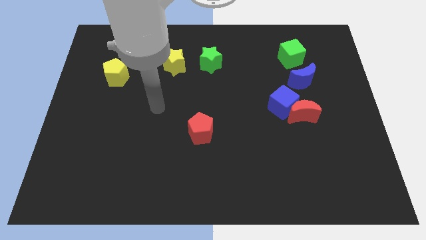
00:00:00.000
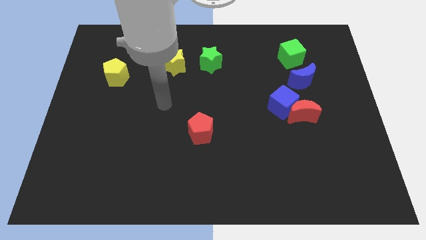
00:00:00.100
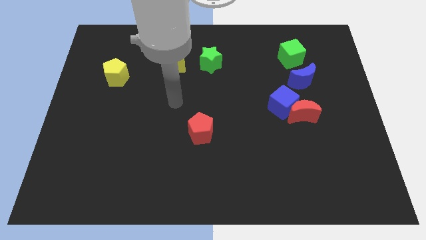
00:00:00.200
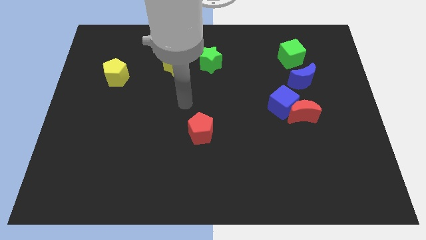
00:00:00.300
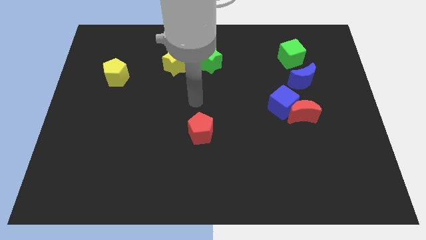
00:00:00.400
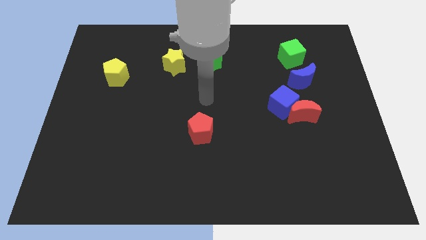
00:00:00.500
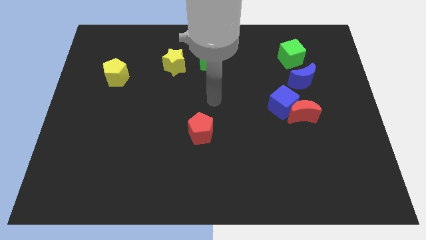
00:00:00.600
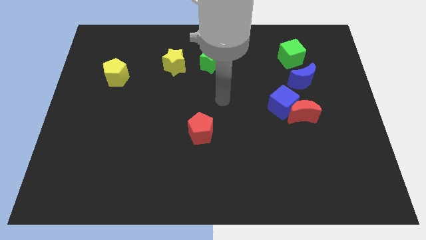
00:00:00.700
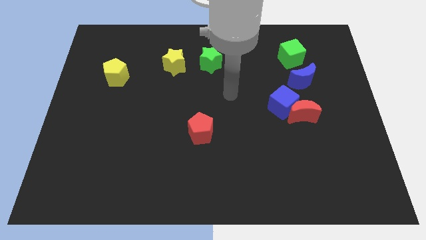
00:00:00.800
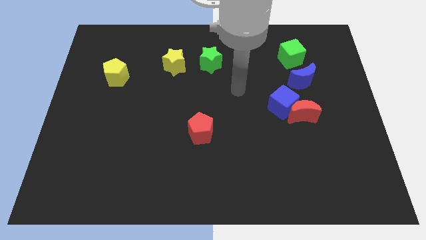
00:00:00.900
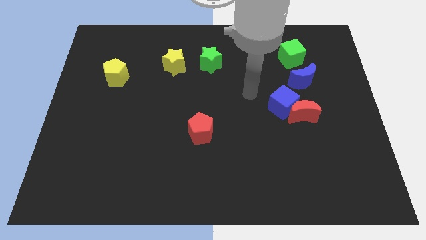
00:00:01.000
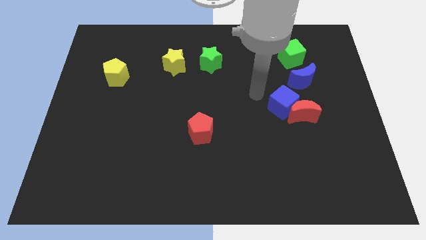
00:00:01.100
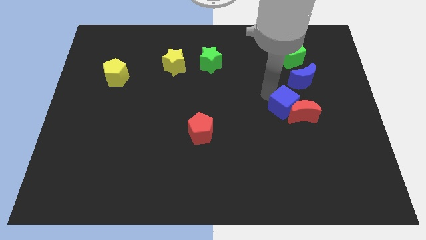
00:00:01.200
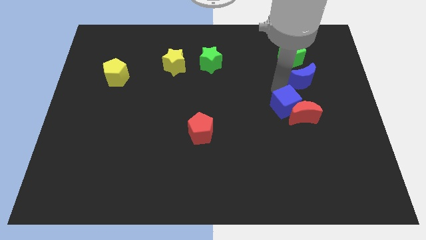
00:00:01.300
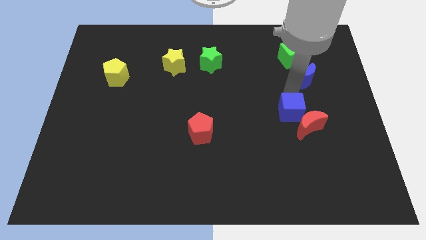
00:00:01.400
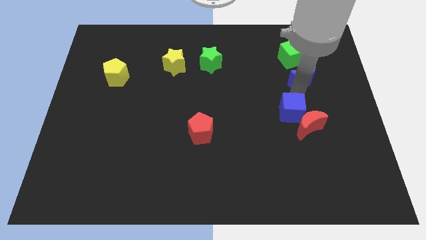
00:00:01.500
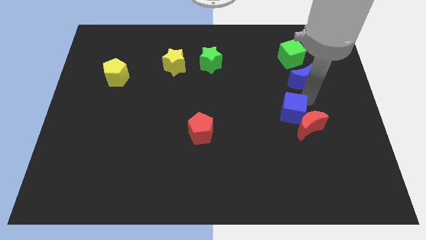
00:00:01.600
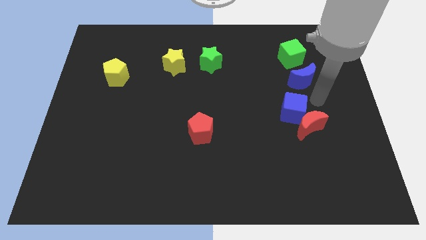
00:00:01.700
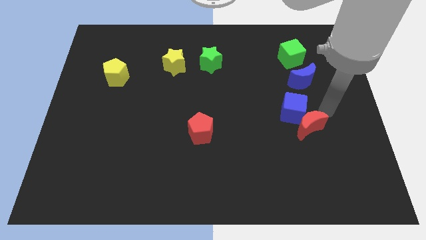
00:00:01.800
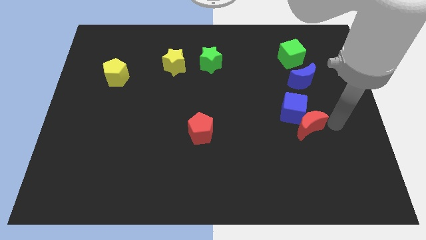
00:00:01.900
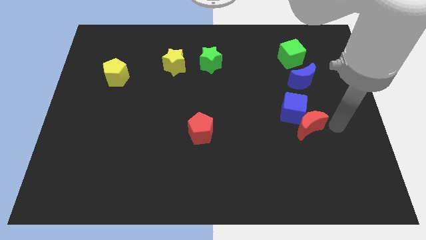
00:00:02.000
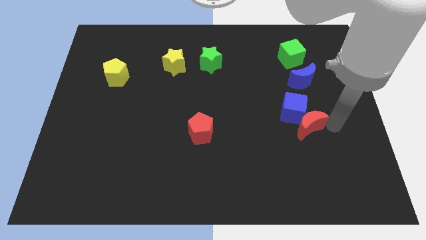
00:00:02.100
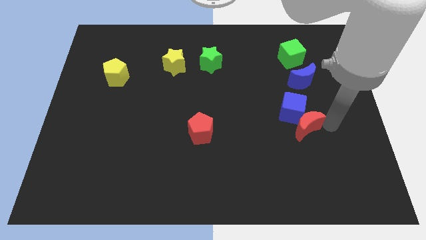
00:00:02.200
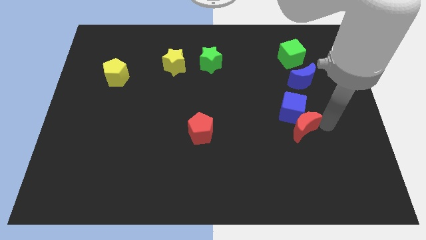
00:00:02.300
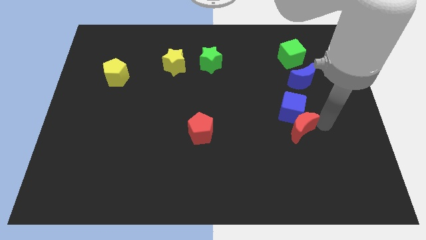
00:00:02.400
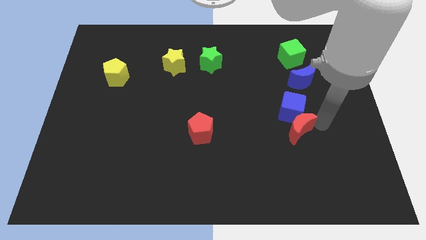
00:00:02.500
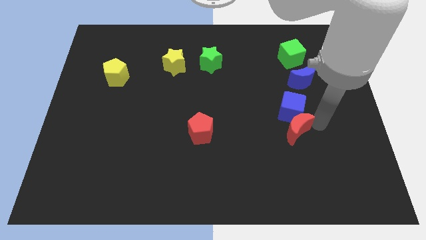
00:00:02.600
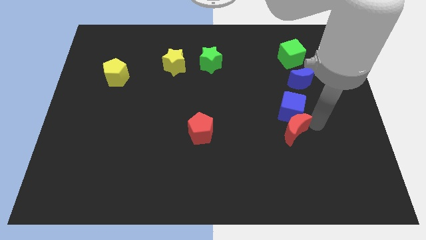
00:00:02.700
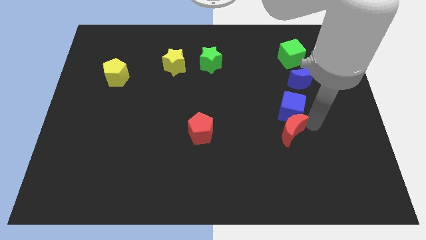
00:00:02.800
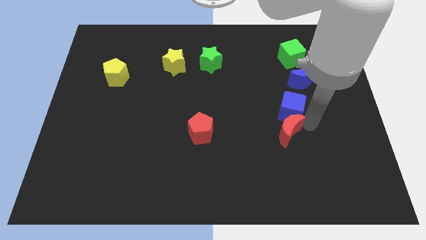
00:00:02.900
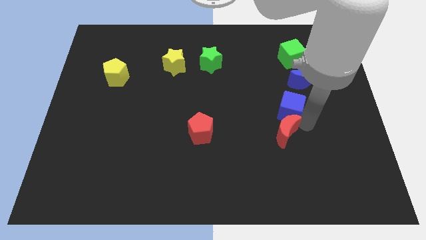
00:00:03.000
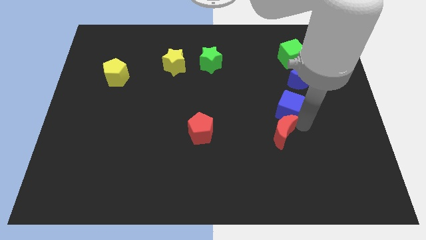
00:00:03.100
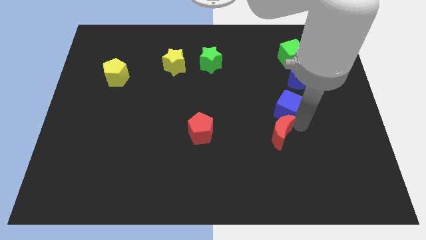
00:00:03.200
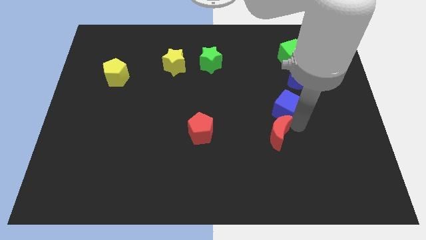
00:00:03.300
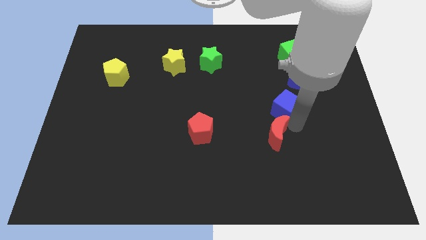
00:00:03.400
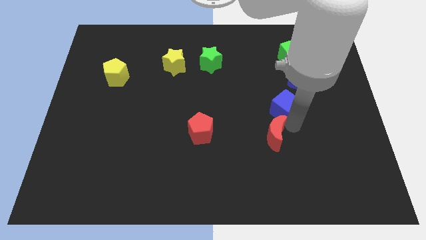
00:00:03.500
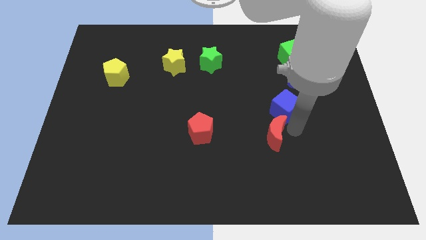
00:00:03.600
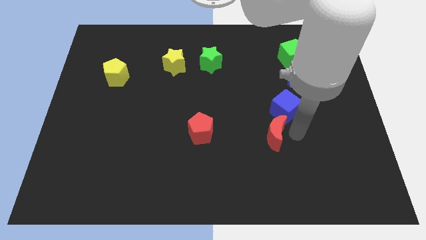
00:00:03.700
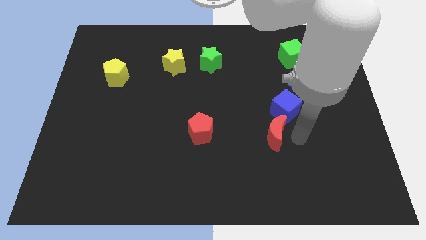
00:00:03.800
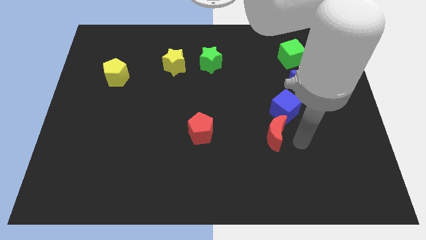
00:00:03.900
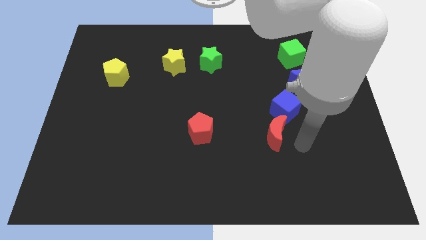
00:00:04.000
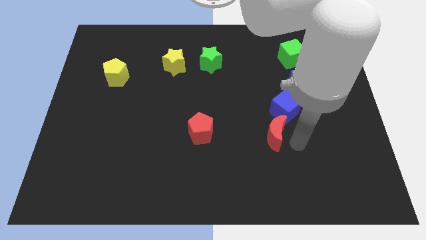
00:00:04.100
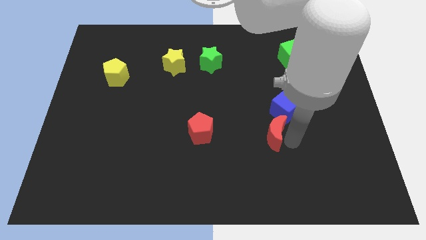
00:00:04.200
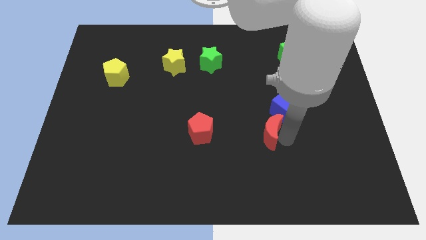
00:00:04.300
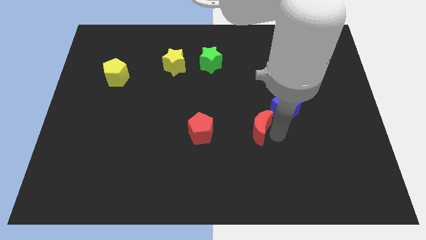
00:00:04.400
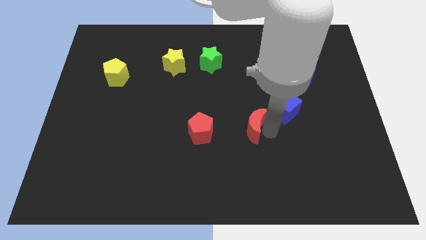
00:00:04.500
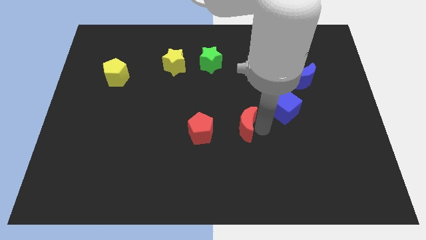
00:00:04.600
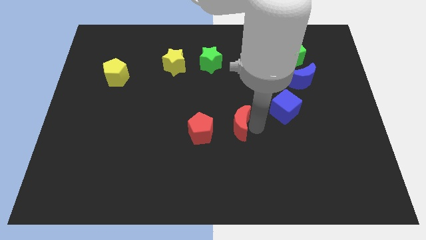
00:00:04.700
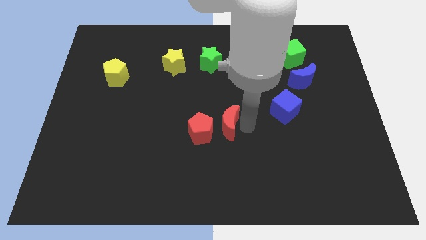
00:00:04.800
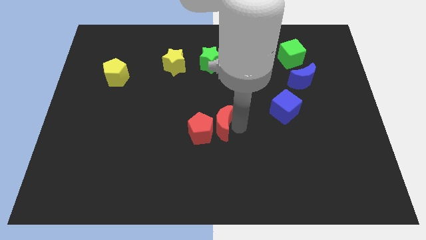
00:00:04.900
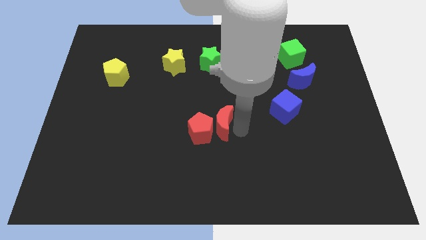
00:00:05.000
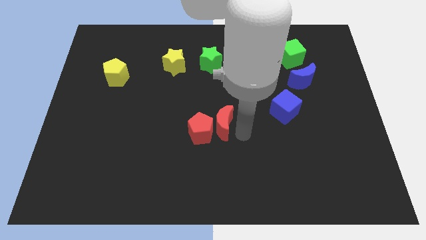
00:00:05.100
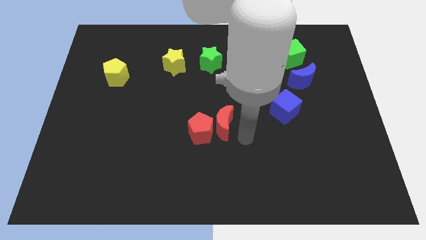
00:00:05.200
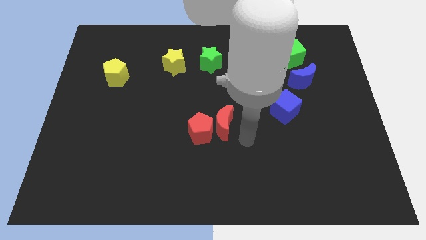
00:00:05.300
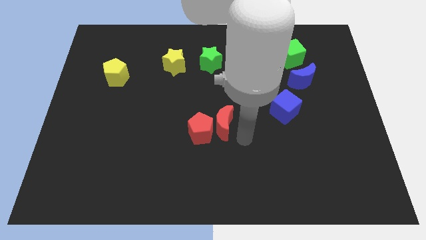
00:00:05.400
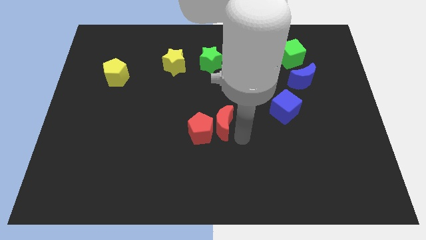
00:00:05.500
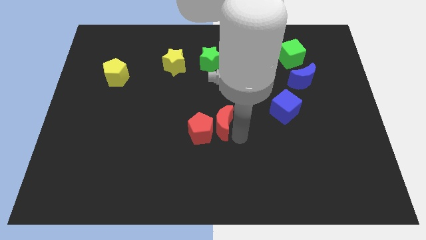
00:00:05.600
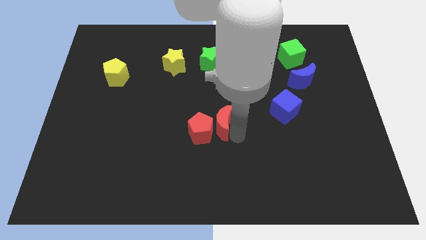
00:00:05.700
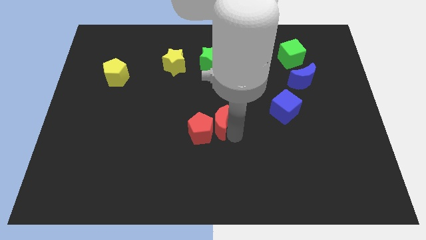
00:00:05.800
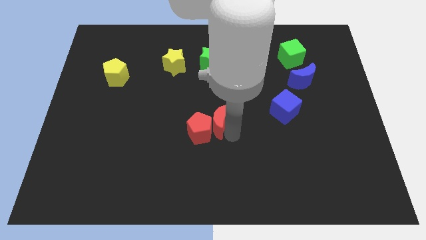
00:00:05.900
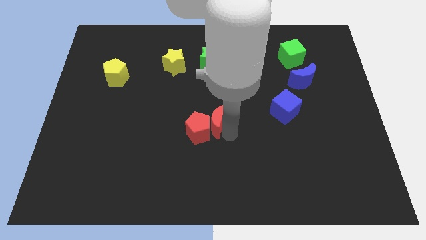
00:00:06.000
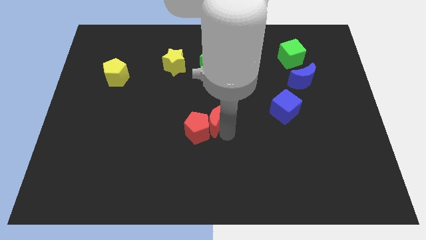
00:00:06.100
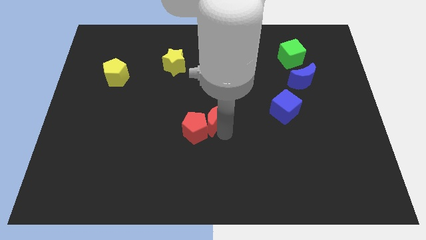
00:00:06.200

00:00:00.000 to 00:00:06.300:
push the red moon to the left

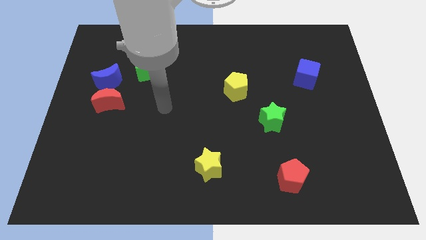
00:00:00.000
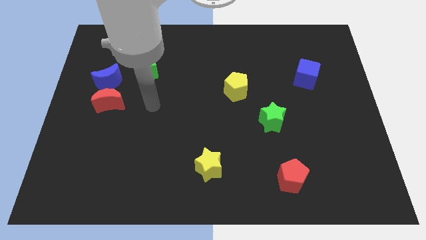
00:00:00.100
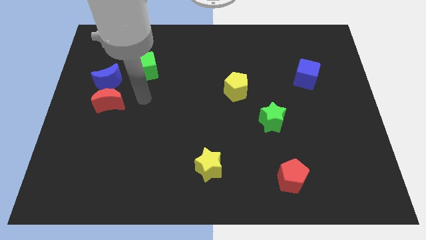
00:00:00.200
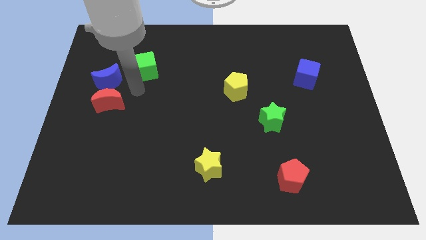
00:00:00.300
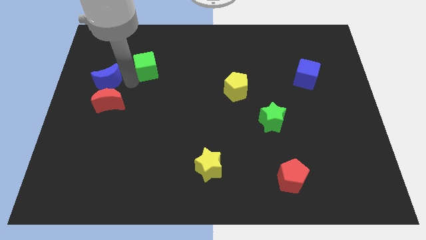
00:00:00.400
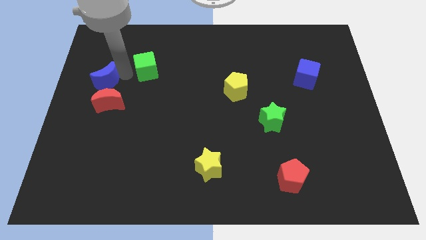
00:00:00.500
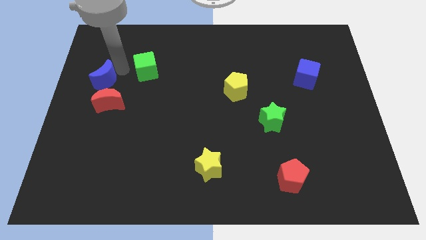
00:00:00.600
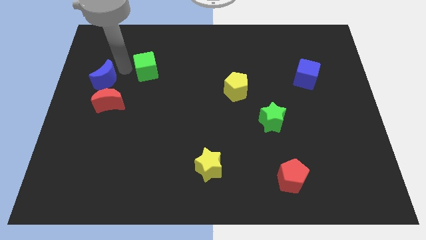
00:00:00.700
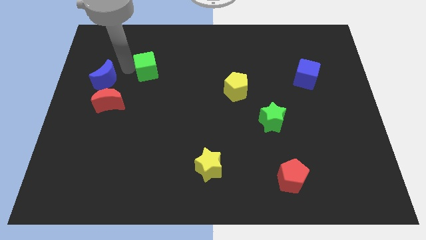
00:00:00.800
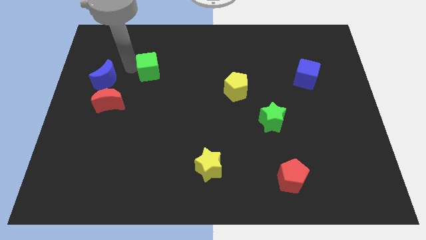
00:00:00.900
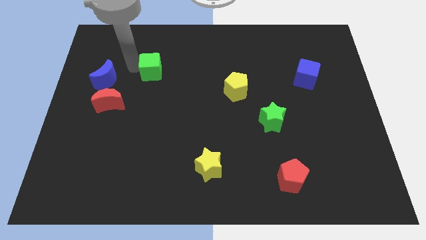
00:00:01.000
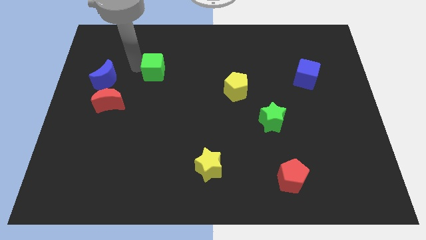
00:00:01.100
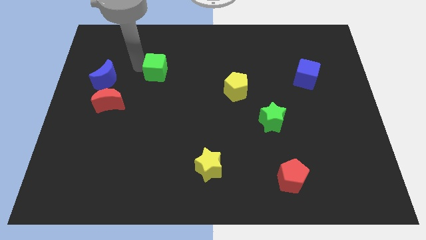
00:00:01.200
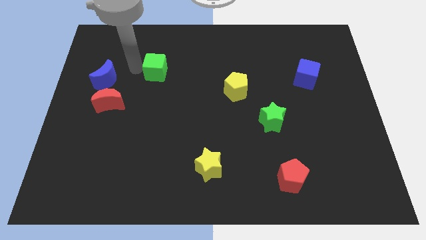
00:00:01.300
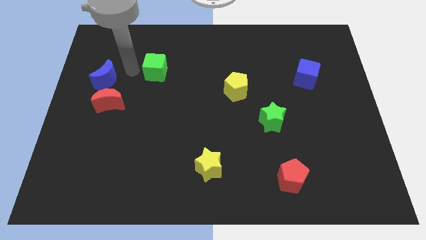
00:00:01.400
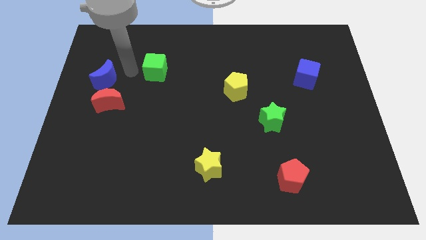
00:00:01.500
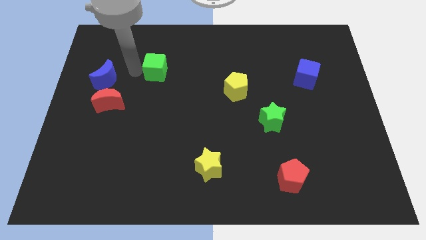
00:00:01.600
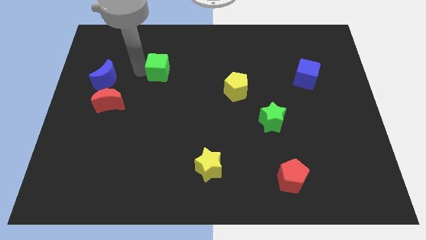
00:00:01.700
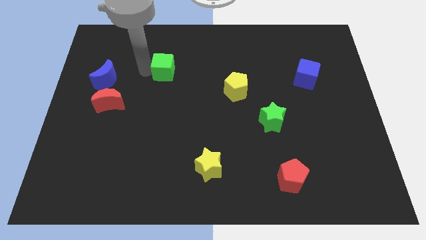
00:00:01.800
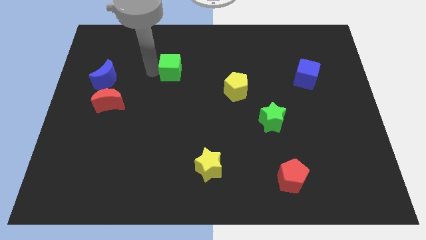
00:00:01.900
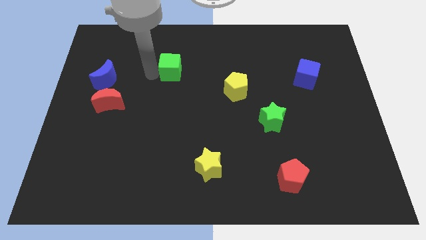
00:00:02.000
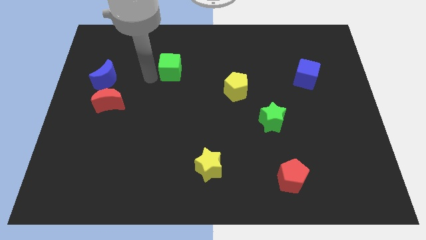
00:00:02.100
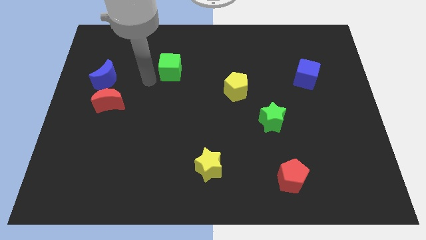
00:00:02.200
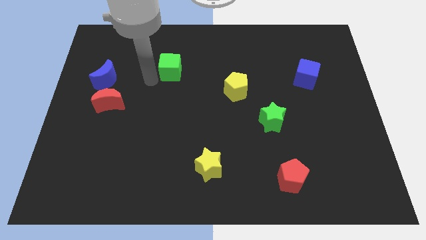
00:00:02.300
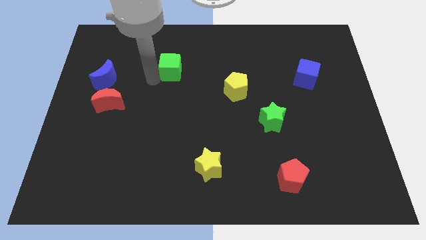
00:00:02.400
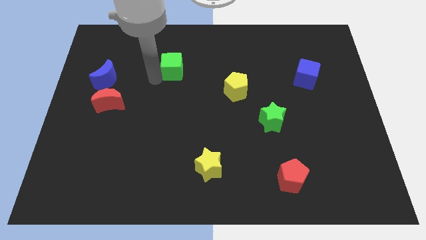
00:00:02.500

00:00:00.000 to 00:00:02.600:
slide the green cube to the right a bit
